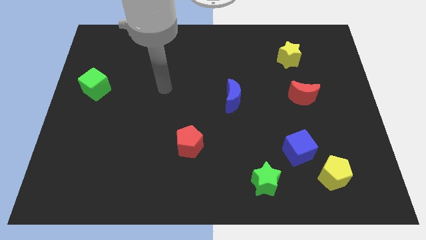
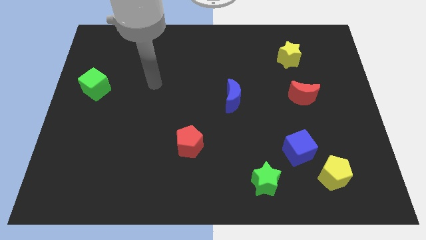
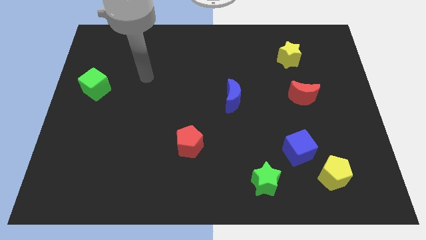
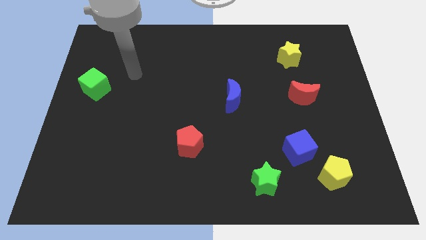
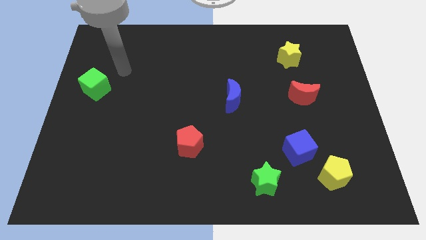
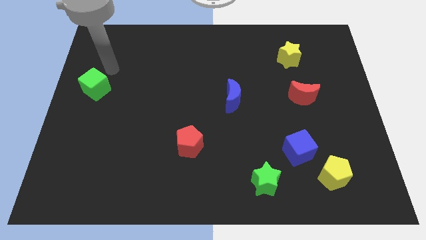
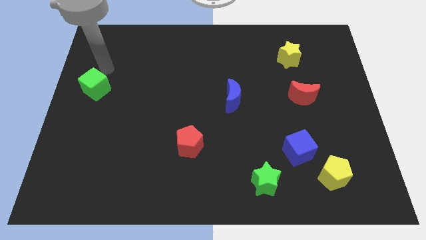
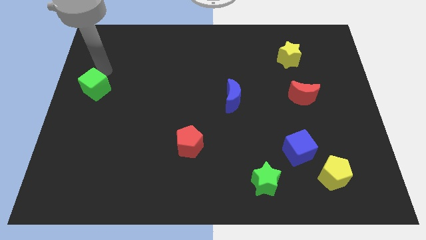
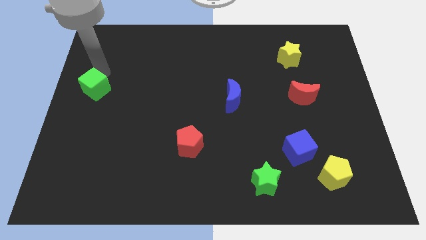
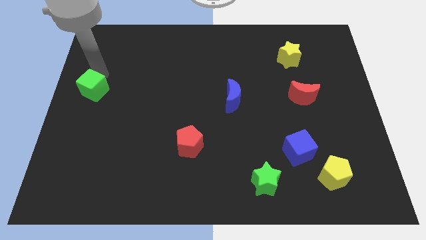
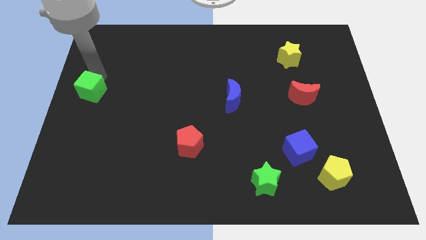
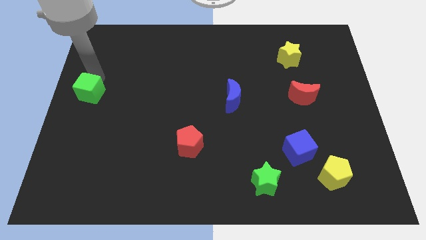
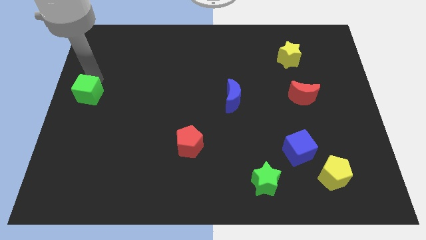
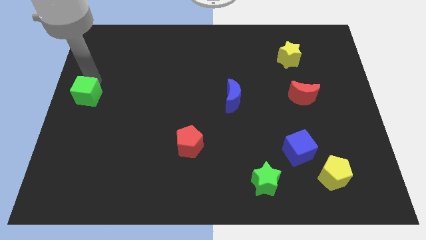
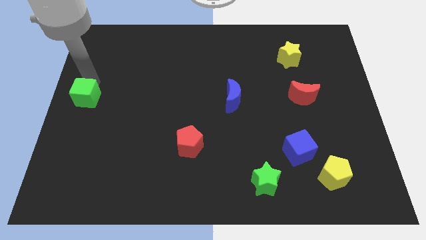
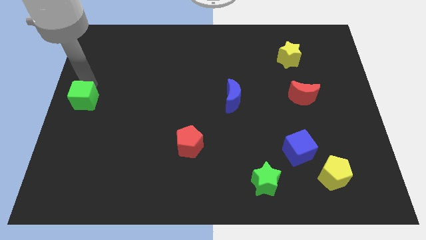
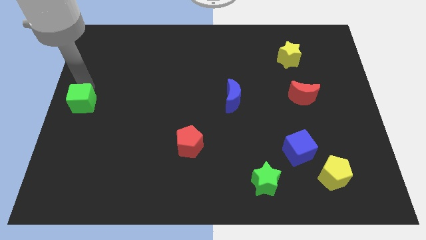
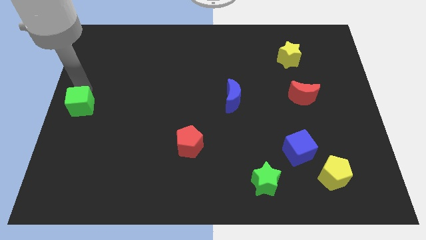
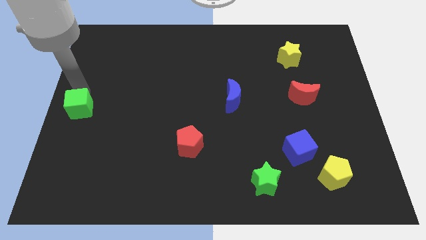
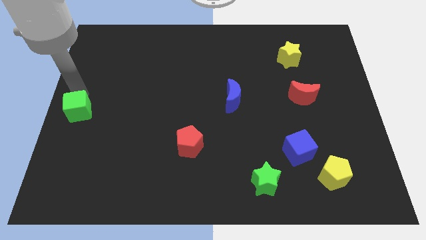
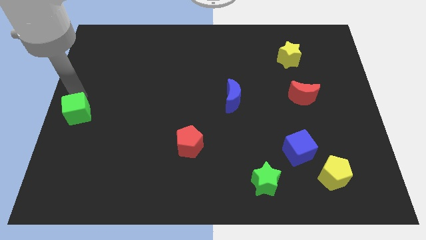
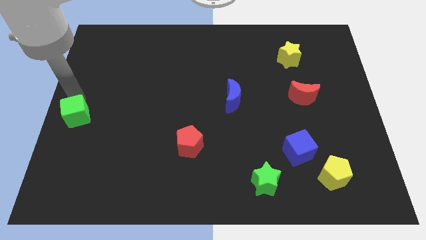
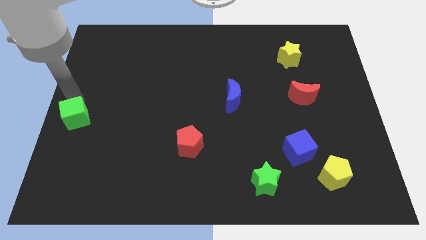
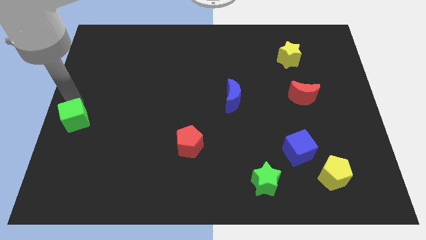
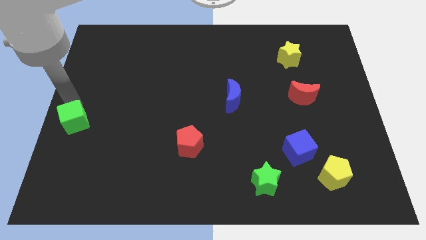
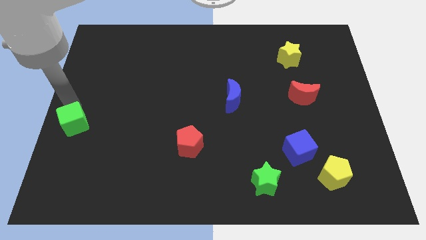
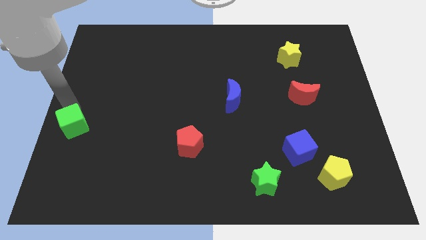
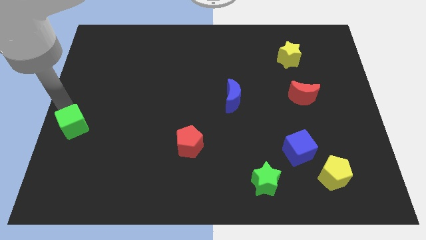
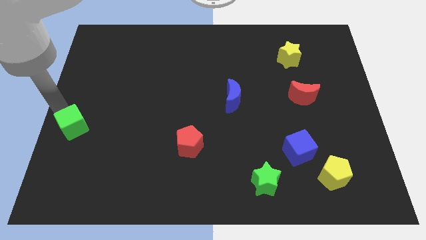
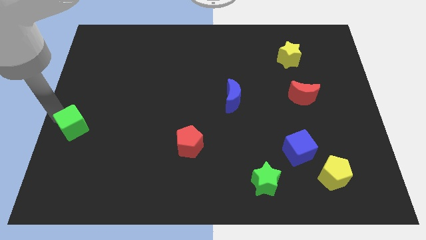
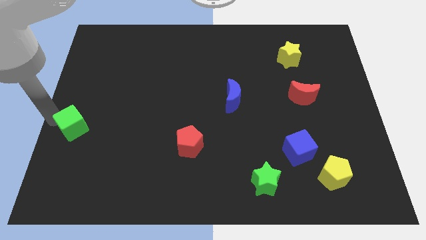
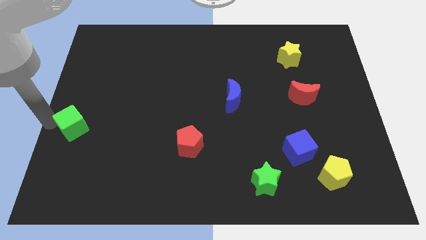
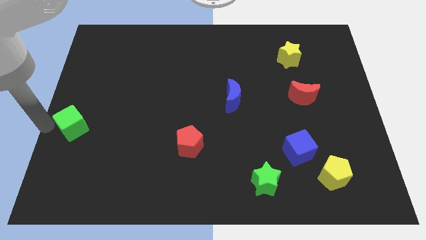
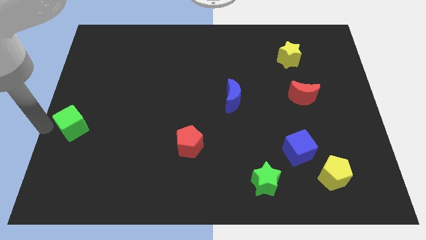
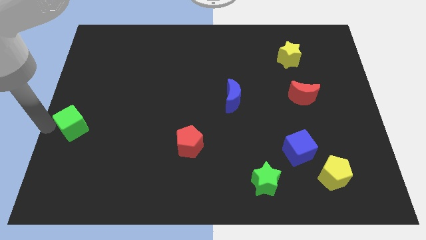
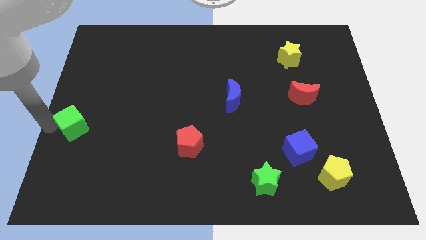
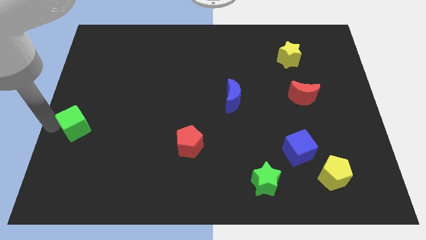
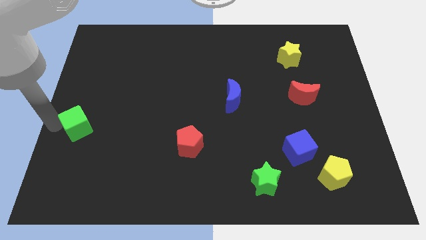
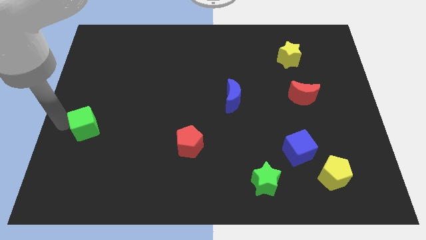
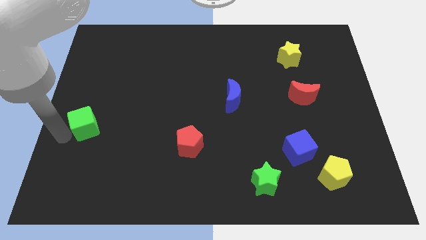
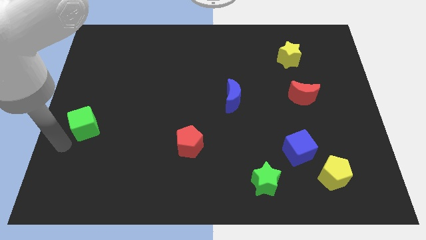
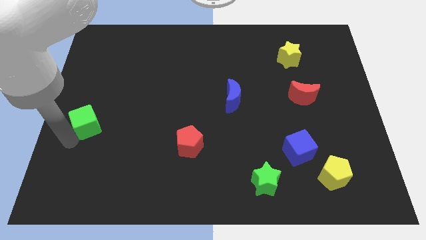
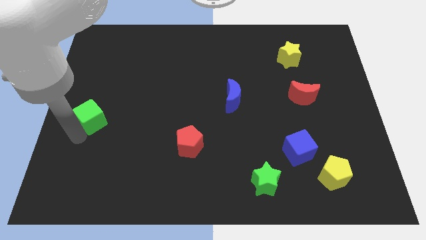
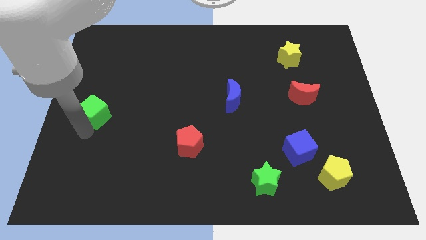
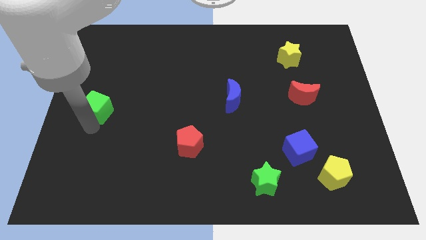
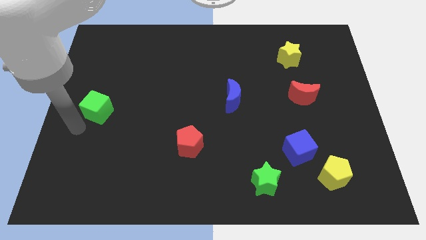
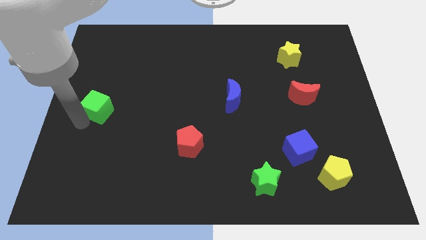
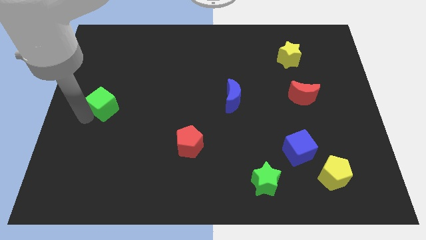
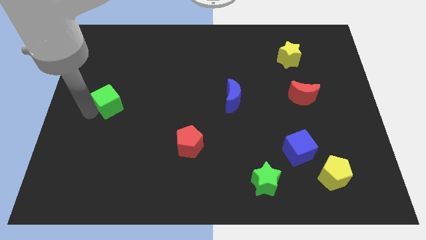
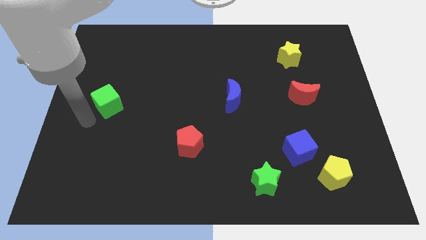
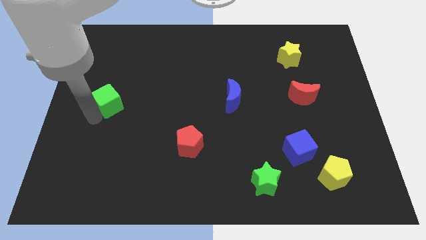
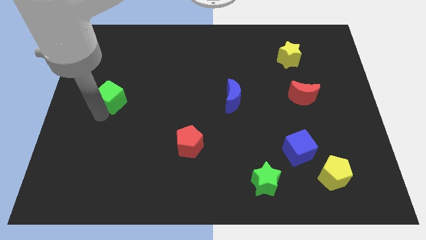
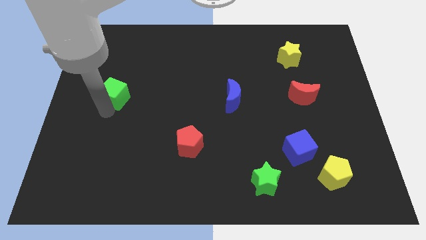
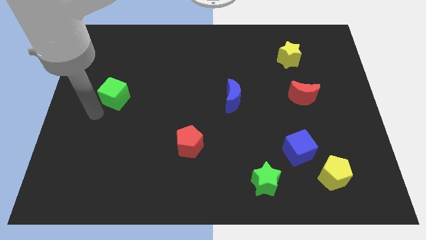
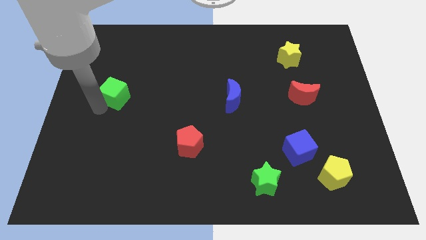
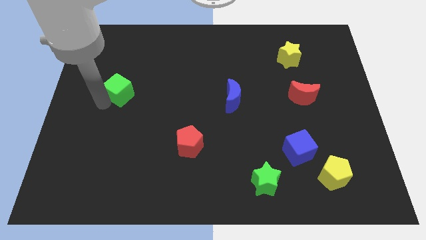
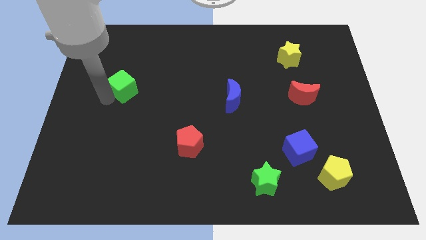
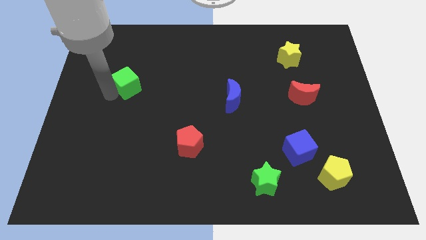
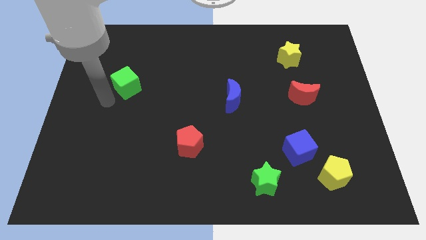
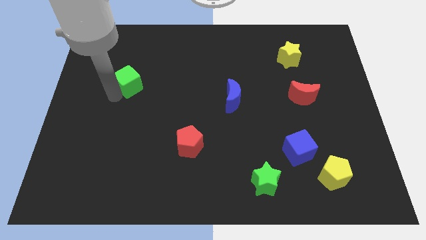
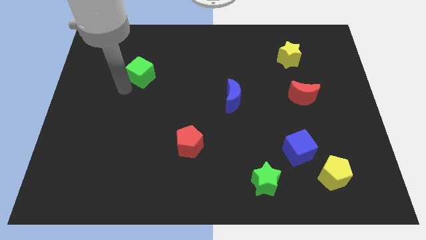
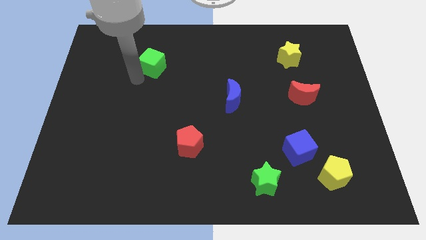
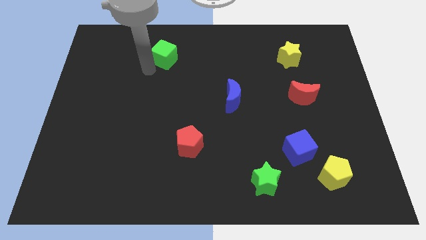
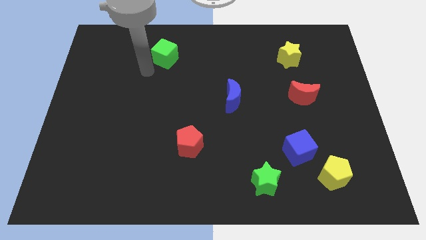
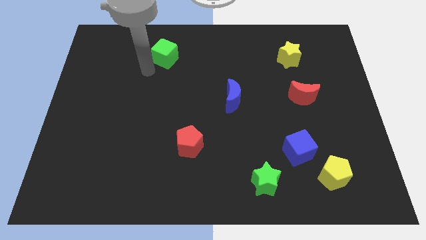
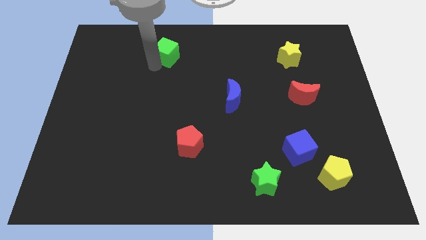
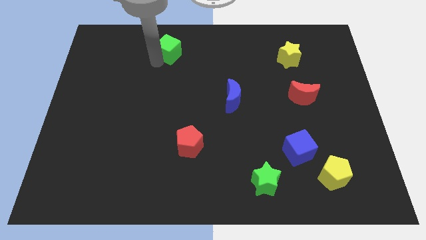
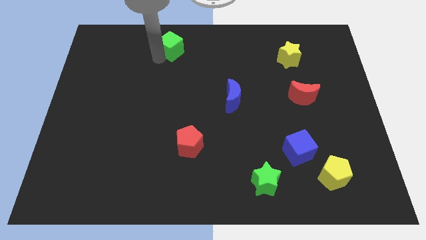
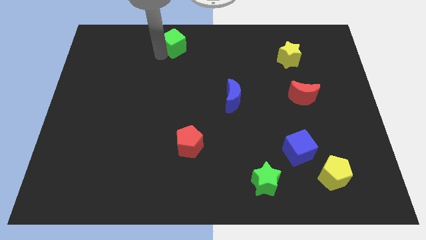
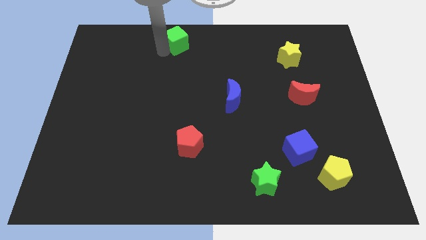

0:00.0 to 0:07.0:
push the green cube to the towards your base

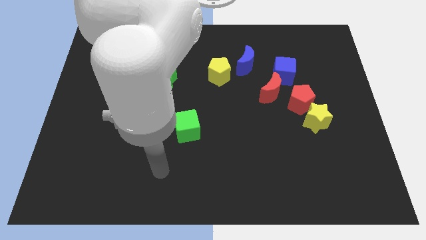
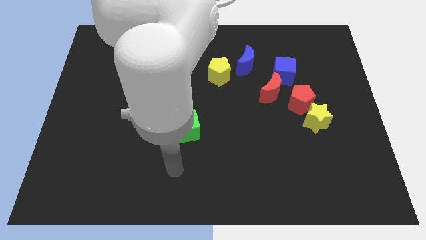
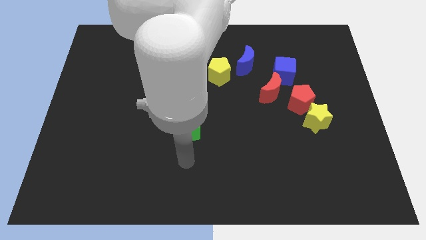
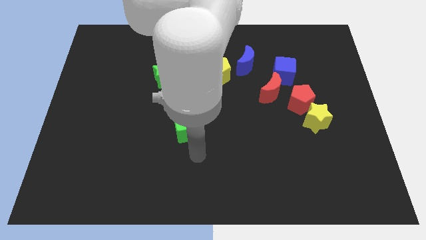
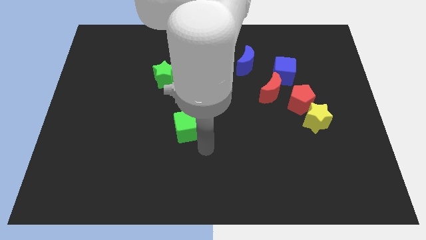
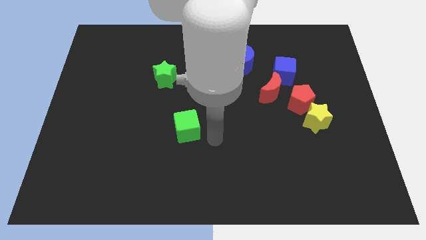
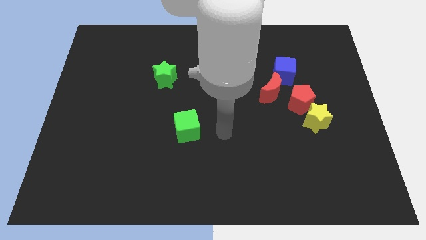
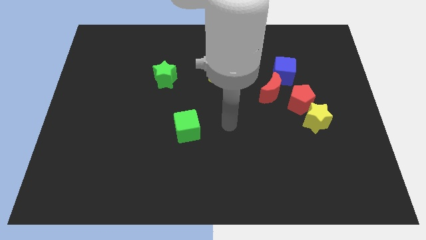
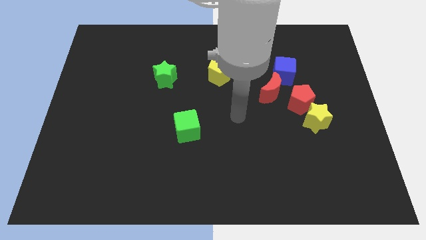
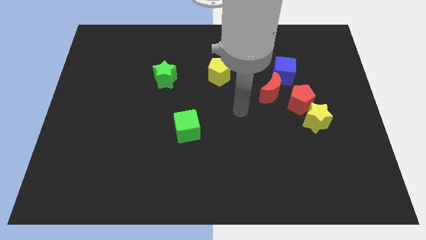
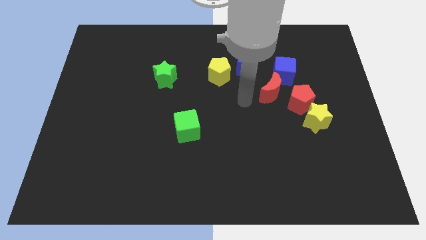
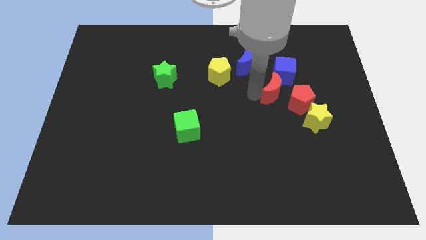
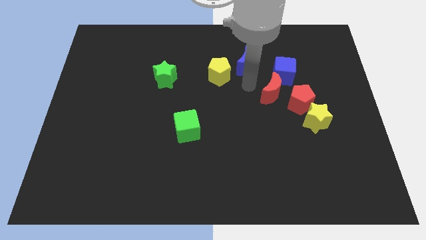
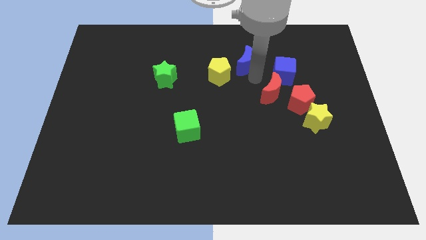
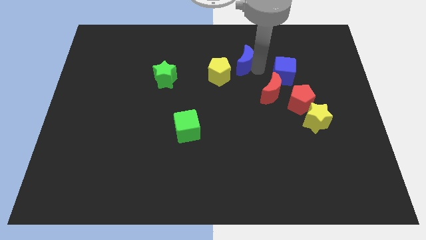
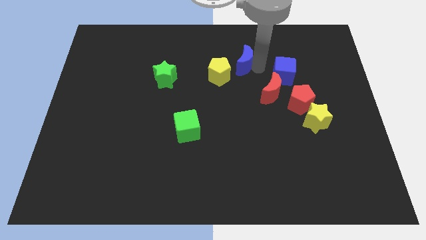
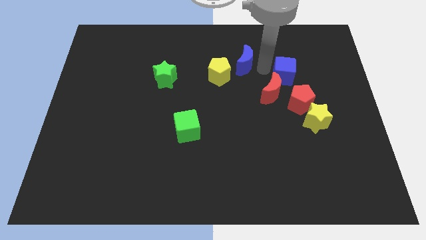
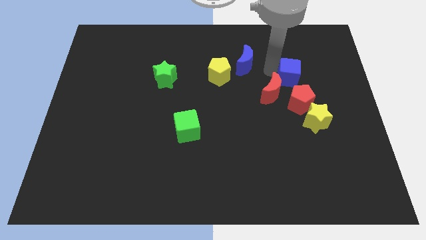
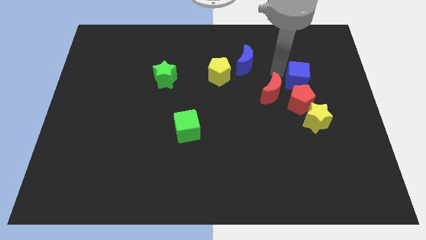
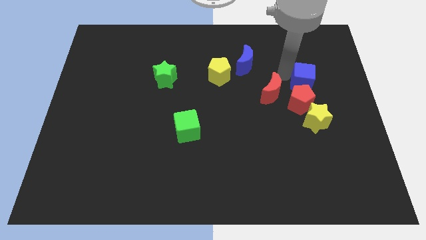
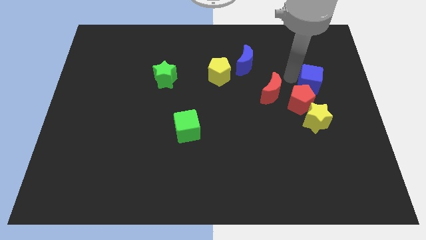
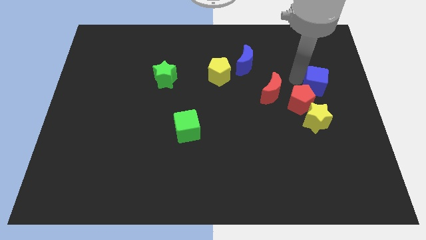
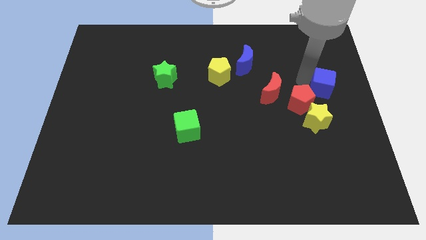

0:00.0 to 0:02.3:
push the blue cube to the center right
